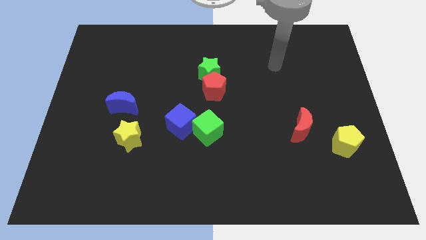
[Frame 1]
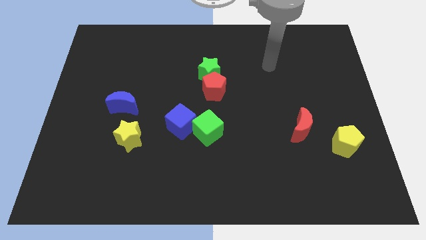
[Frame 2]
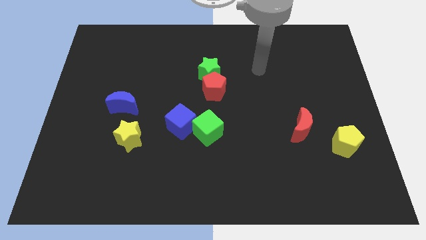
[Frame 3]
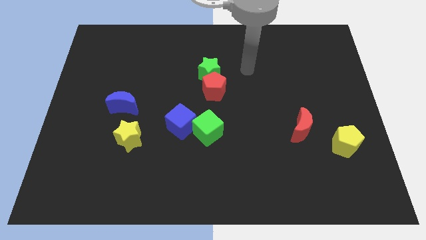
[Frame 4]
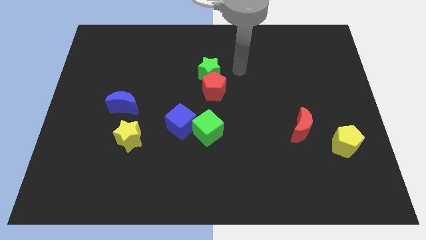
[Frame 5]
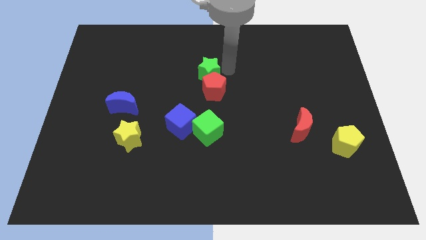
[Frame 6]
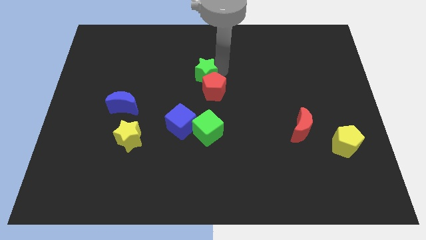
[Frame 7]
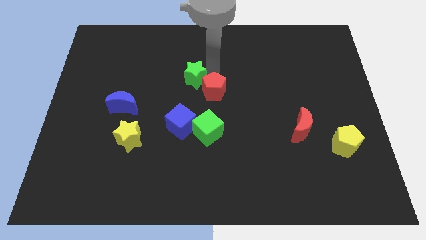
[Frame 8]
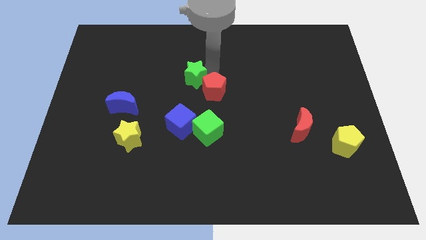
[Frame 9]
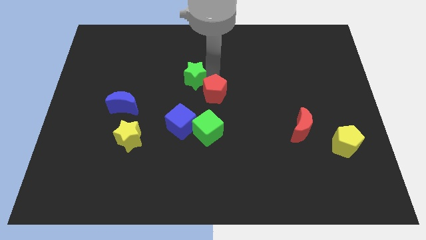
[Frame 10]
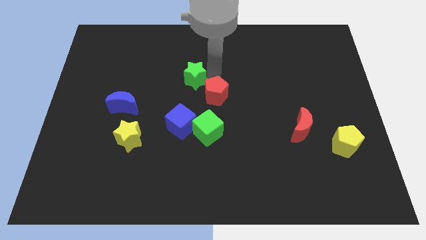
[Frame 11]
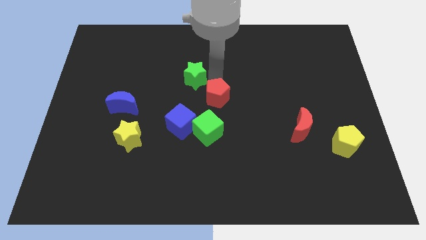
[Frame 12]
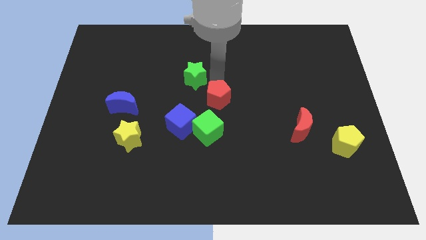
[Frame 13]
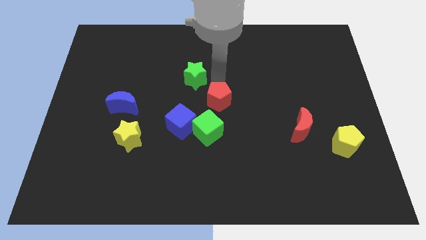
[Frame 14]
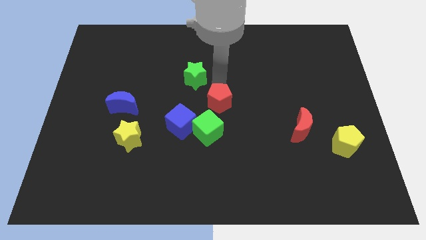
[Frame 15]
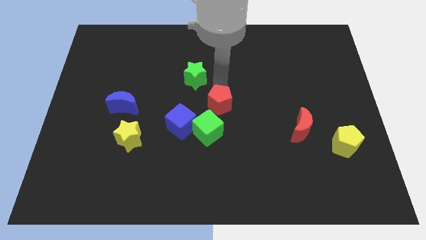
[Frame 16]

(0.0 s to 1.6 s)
move the red pentagon away from the green star

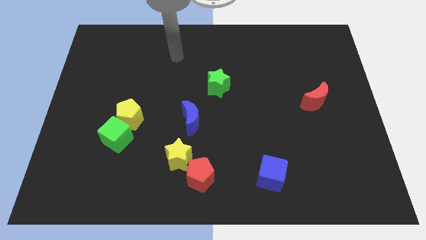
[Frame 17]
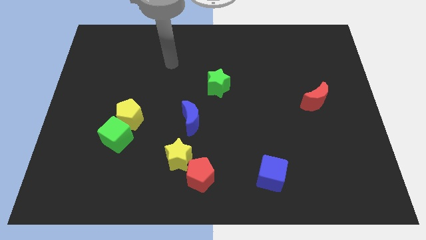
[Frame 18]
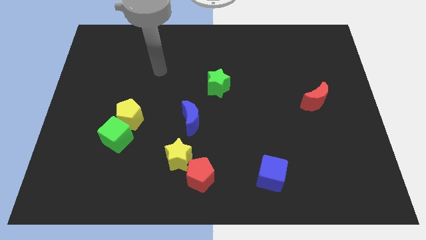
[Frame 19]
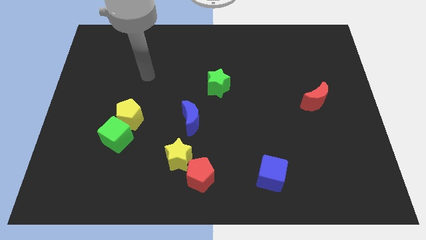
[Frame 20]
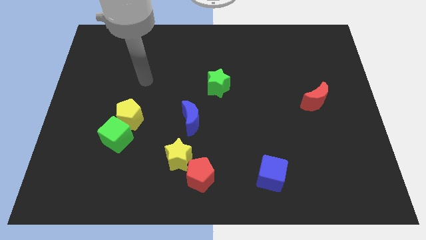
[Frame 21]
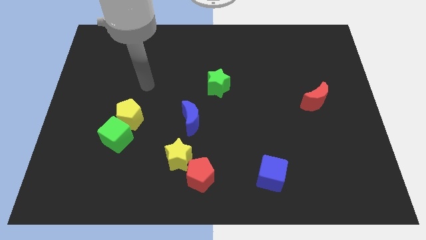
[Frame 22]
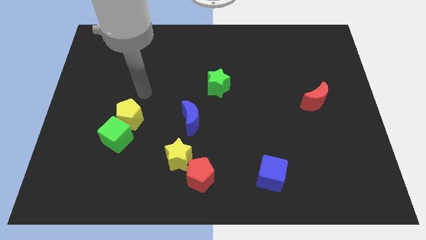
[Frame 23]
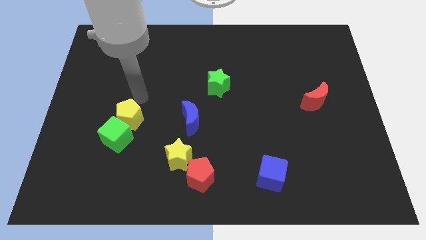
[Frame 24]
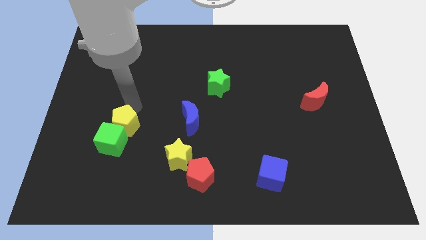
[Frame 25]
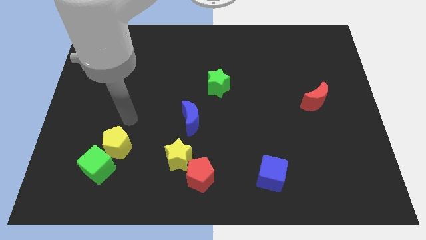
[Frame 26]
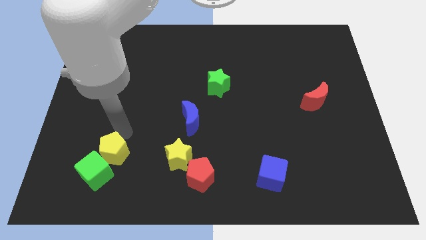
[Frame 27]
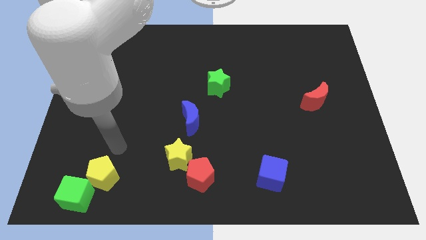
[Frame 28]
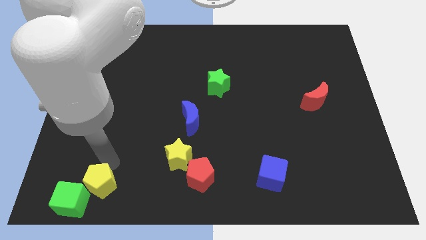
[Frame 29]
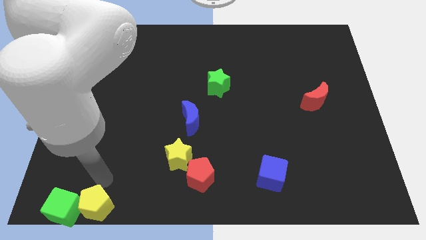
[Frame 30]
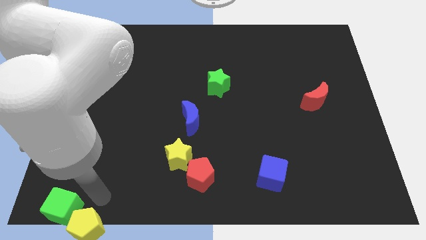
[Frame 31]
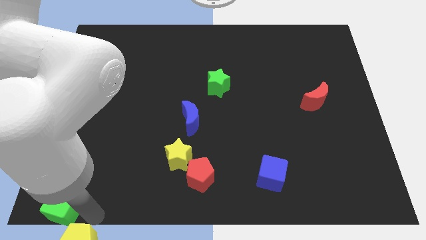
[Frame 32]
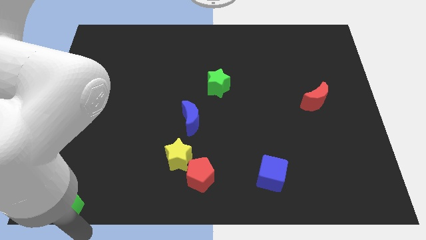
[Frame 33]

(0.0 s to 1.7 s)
pull the green cube apart from the yellow pentagon

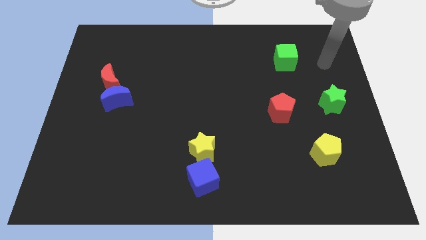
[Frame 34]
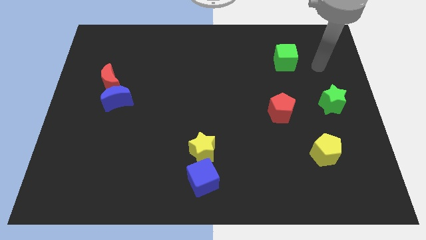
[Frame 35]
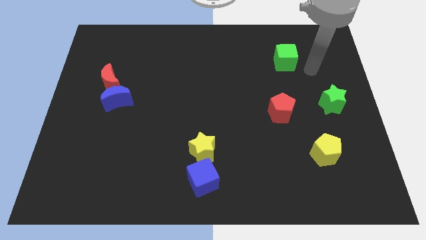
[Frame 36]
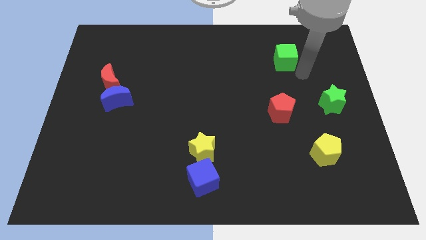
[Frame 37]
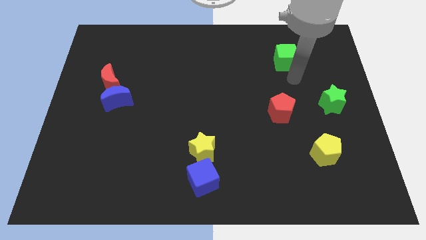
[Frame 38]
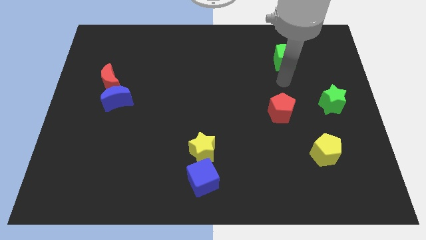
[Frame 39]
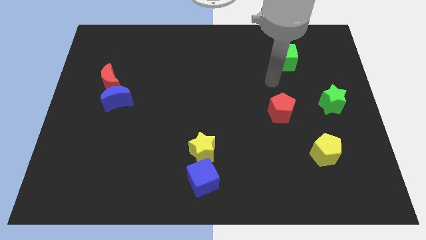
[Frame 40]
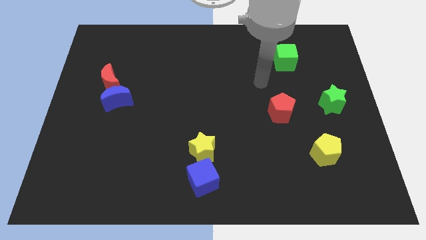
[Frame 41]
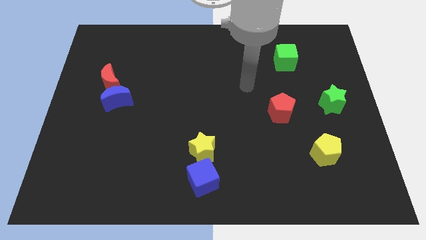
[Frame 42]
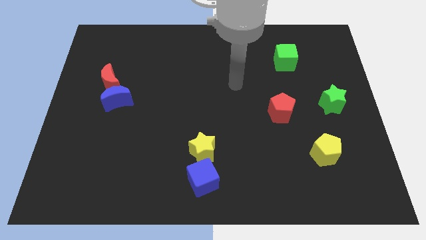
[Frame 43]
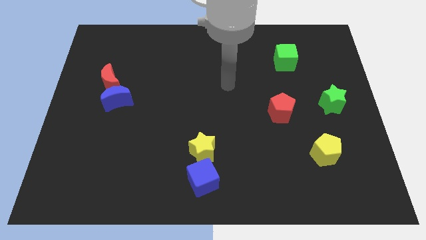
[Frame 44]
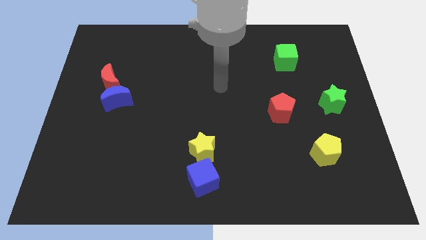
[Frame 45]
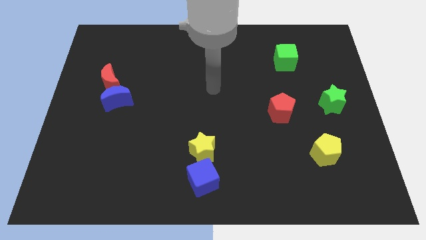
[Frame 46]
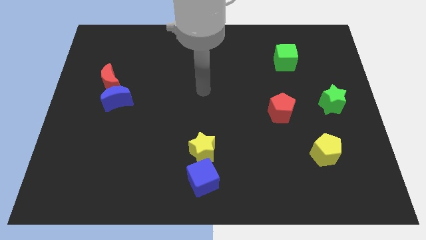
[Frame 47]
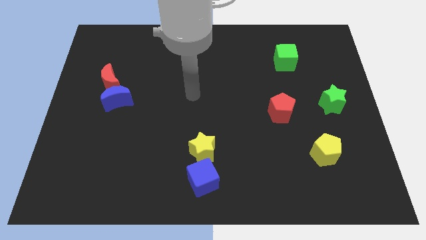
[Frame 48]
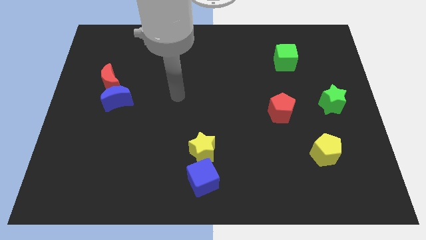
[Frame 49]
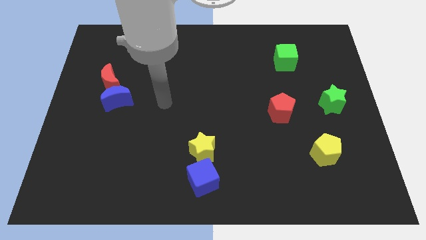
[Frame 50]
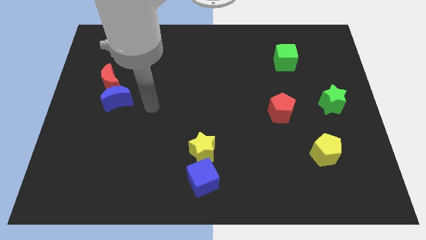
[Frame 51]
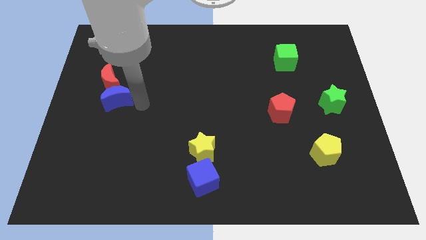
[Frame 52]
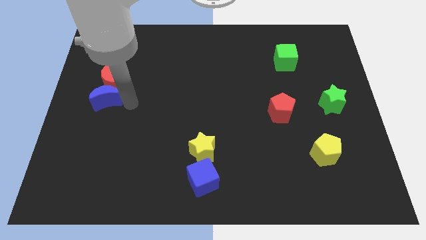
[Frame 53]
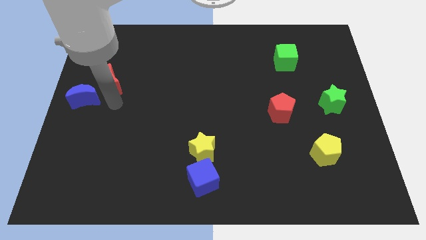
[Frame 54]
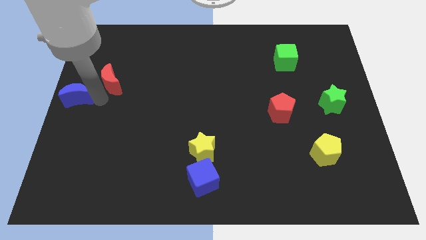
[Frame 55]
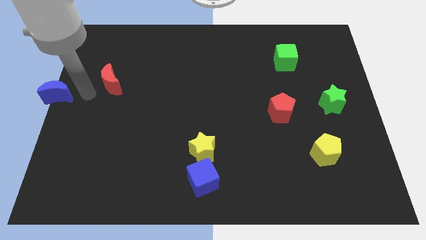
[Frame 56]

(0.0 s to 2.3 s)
move the red moon away from the blue moon

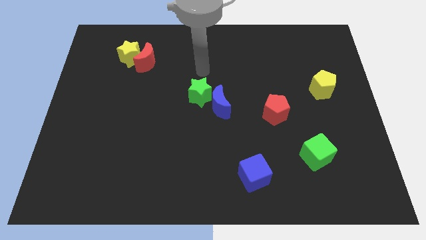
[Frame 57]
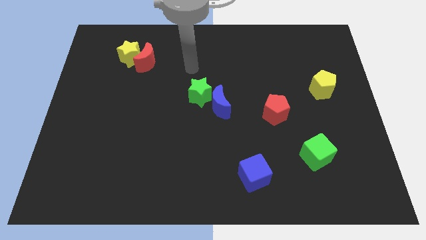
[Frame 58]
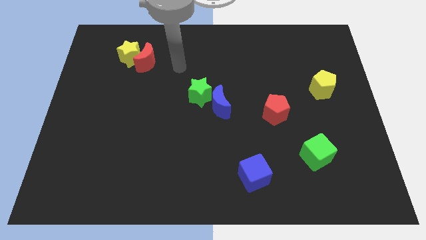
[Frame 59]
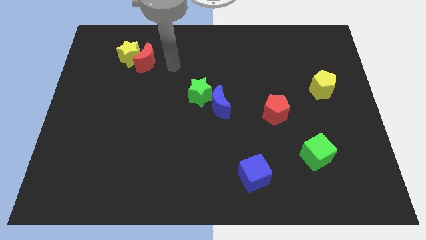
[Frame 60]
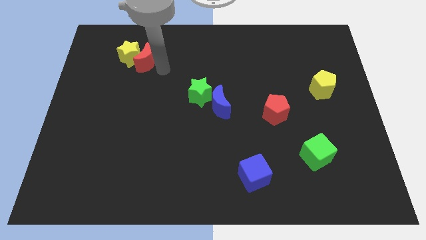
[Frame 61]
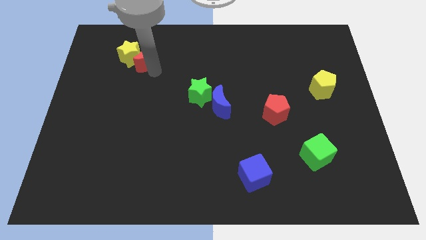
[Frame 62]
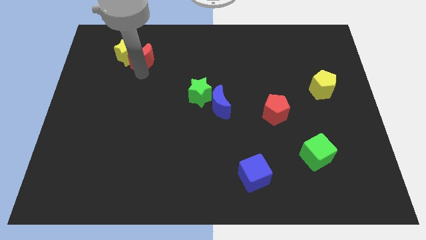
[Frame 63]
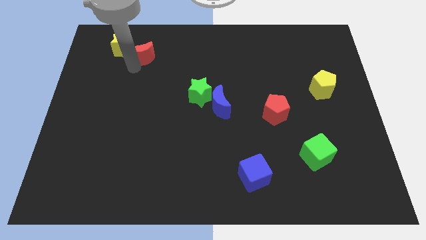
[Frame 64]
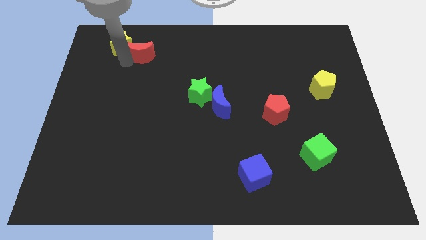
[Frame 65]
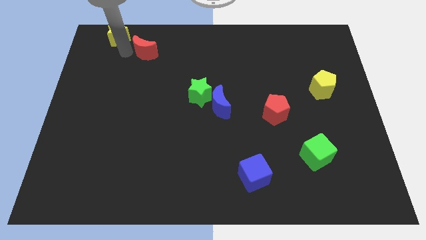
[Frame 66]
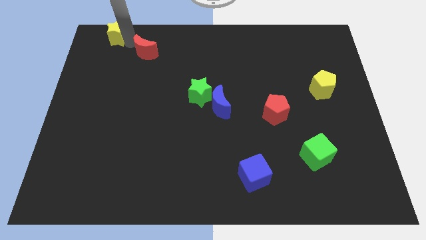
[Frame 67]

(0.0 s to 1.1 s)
pull the red moon apart from the yellow star

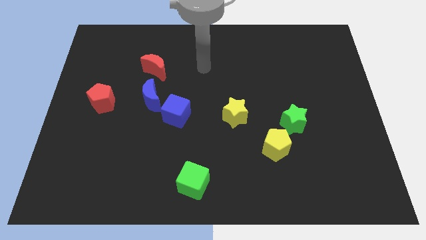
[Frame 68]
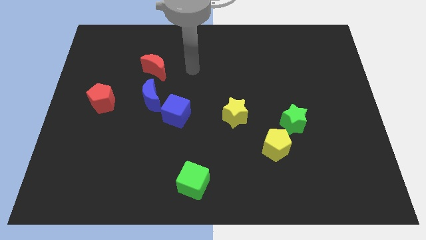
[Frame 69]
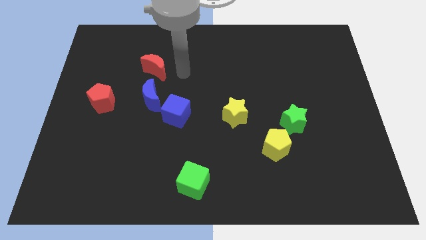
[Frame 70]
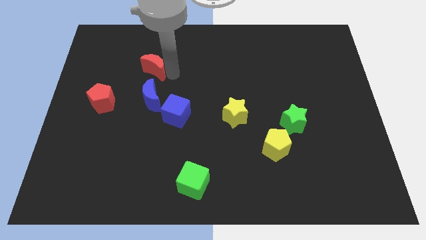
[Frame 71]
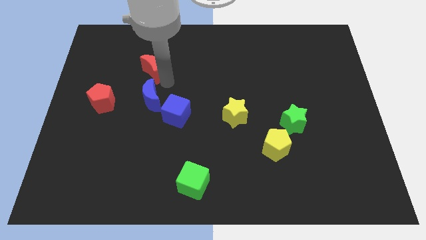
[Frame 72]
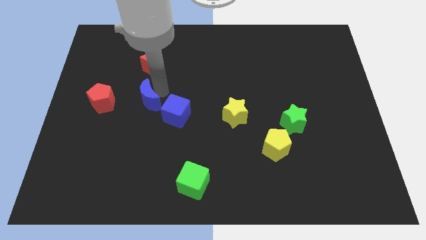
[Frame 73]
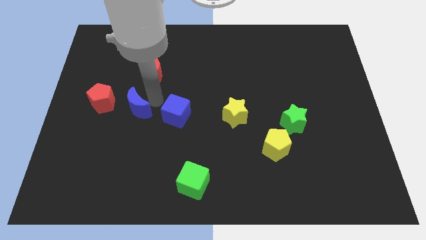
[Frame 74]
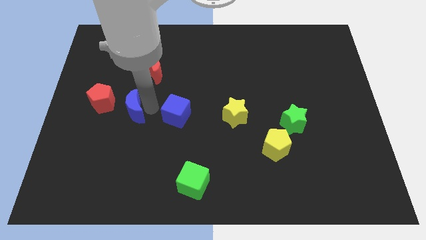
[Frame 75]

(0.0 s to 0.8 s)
separate the blue cube from the blue moon

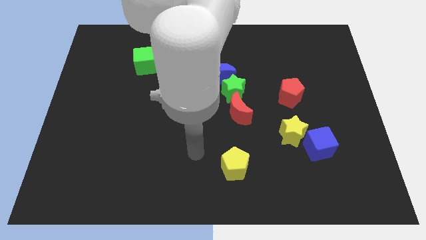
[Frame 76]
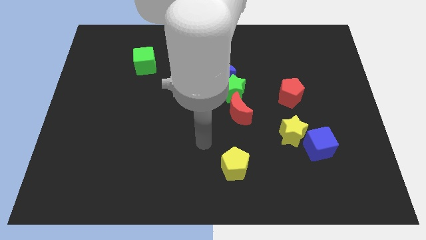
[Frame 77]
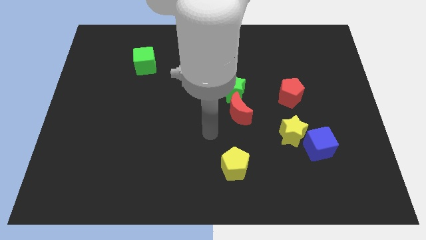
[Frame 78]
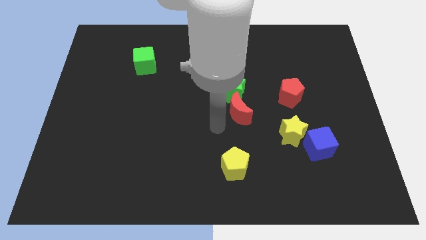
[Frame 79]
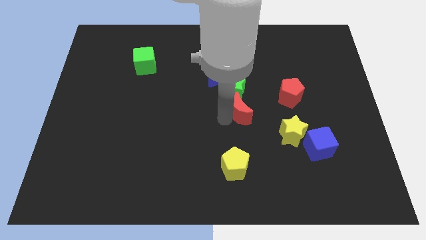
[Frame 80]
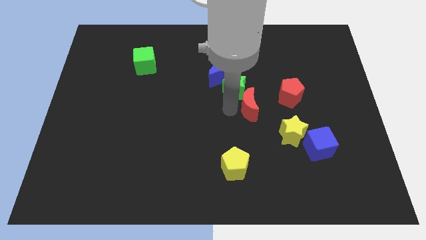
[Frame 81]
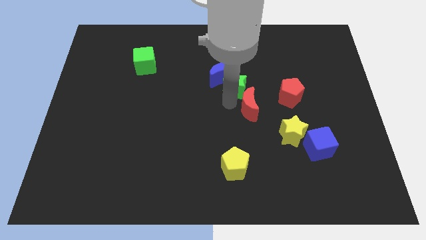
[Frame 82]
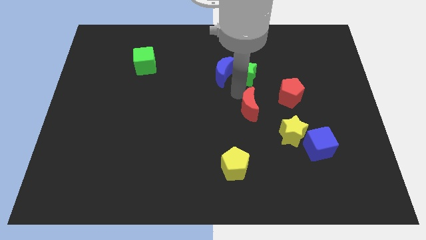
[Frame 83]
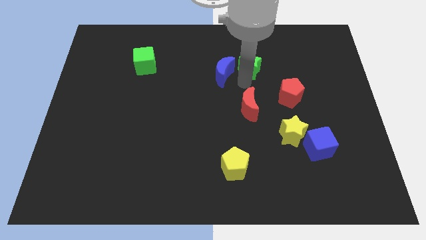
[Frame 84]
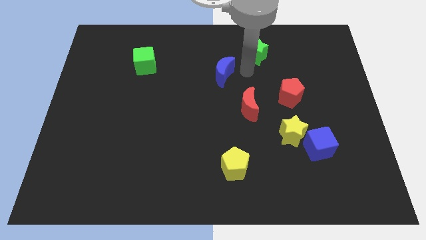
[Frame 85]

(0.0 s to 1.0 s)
pull the blue moon apart from the green star

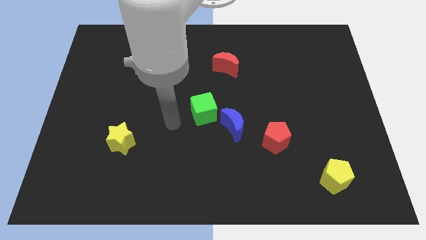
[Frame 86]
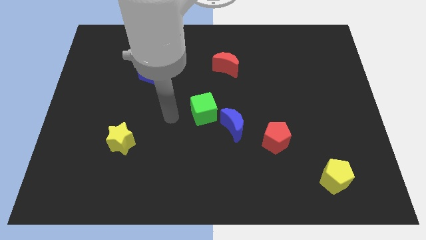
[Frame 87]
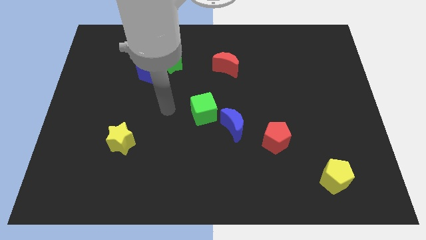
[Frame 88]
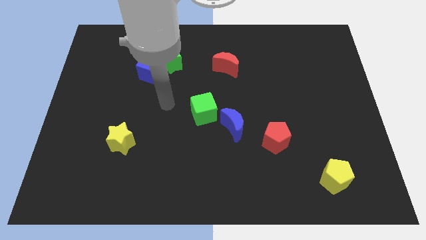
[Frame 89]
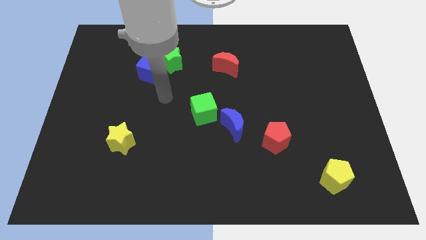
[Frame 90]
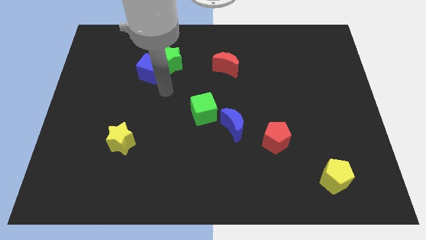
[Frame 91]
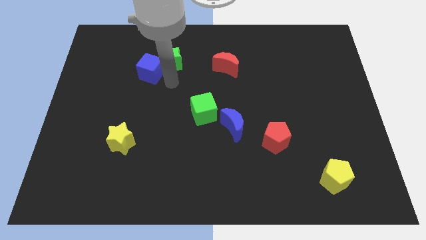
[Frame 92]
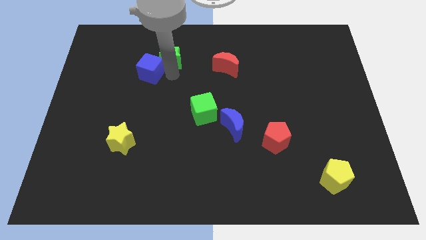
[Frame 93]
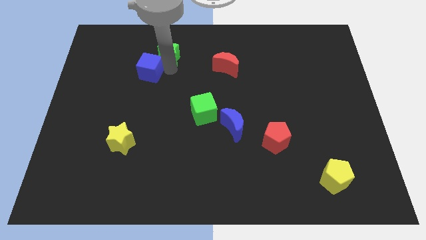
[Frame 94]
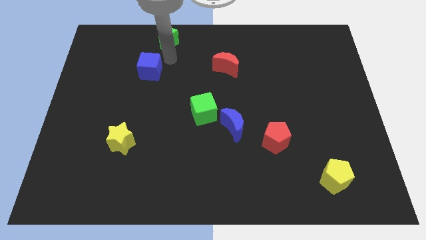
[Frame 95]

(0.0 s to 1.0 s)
pull the blue cube apart from the green star
